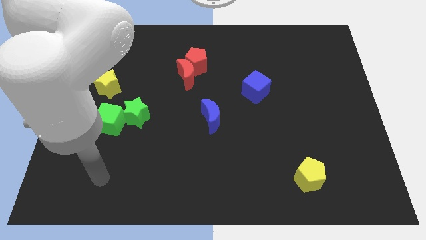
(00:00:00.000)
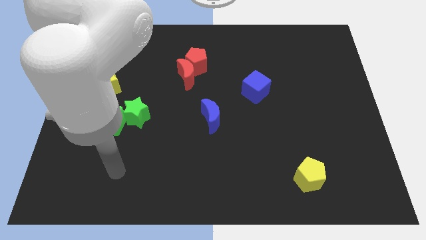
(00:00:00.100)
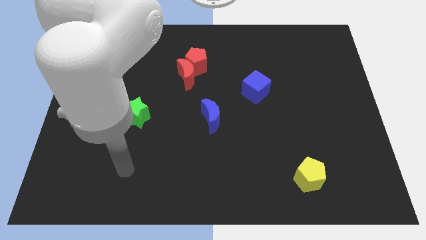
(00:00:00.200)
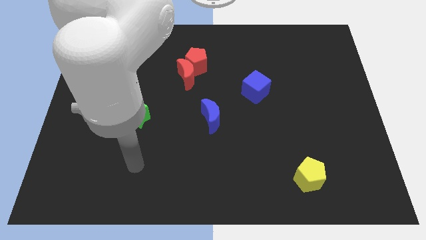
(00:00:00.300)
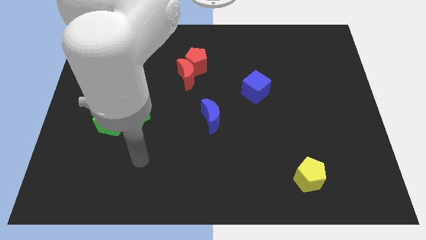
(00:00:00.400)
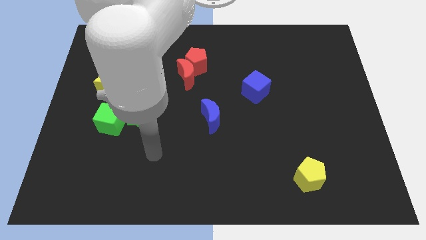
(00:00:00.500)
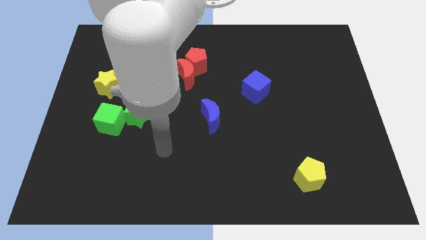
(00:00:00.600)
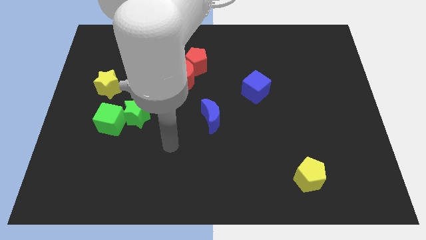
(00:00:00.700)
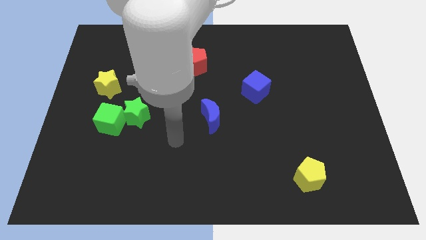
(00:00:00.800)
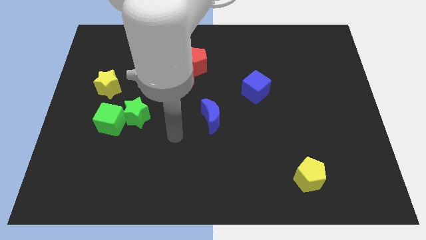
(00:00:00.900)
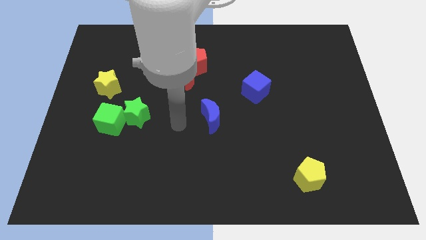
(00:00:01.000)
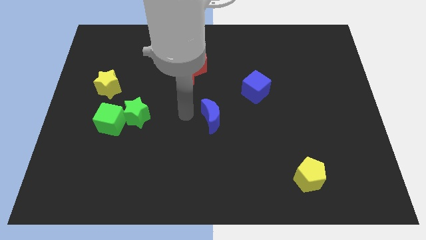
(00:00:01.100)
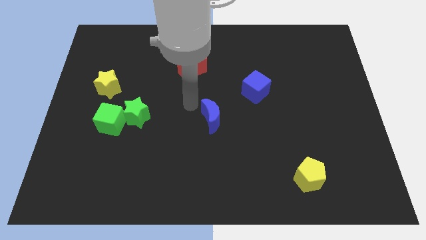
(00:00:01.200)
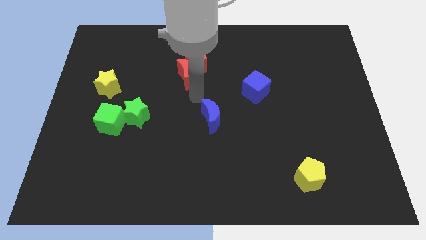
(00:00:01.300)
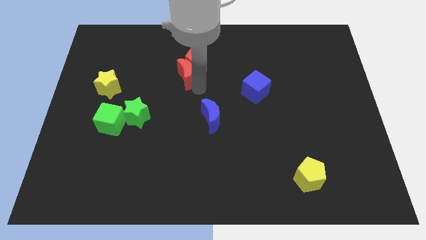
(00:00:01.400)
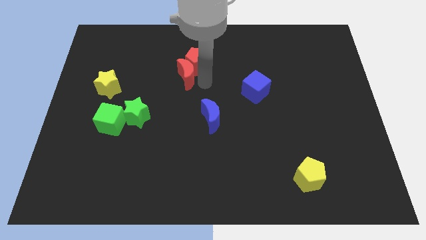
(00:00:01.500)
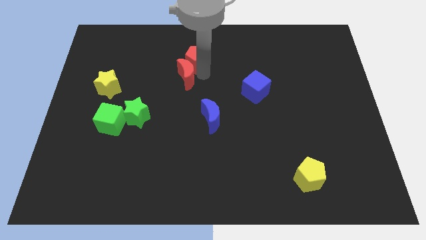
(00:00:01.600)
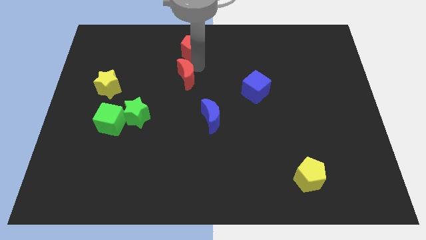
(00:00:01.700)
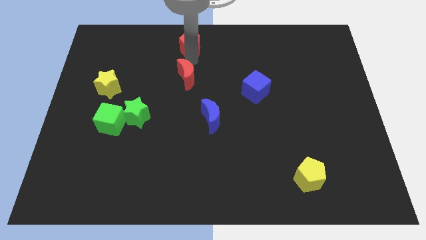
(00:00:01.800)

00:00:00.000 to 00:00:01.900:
pull the red moon apart from the red pentagon

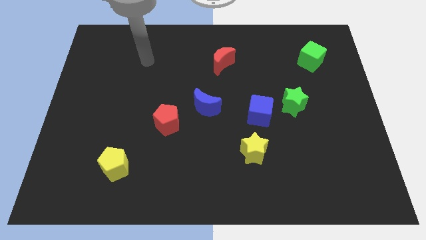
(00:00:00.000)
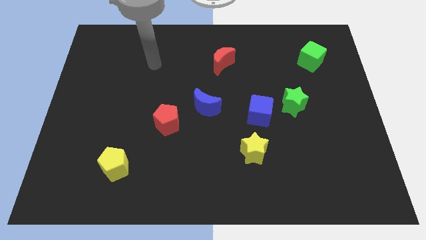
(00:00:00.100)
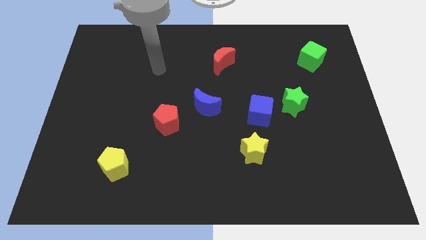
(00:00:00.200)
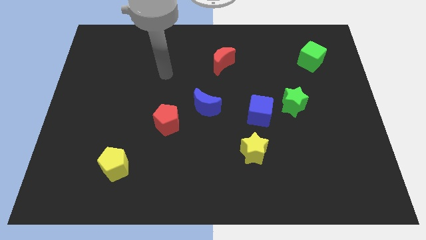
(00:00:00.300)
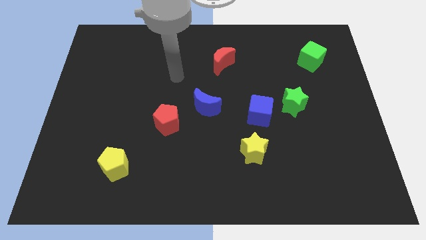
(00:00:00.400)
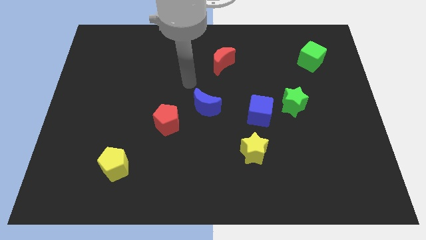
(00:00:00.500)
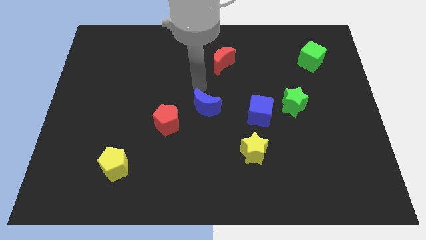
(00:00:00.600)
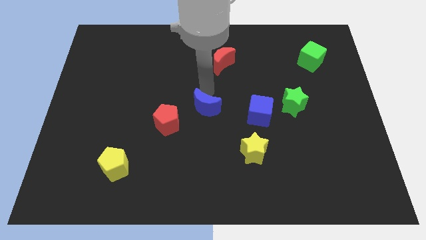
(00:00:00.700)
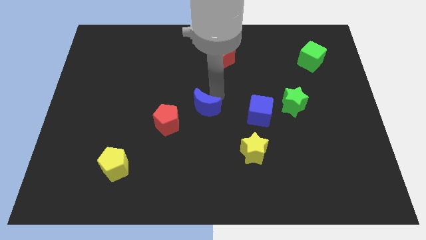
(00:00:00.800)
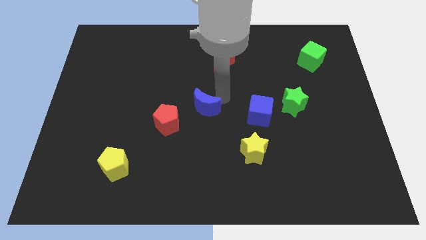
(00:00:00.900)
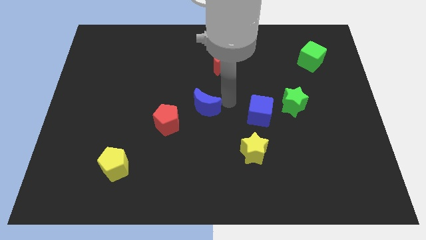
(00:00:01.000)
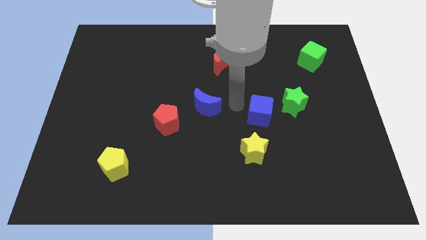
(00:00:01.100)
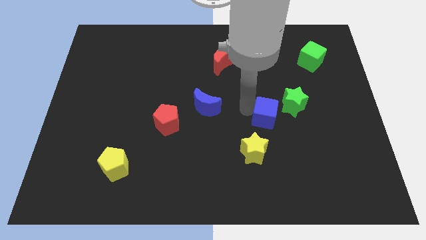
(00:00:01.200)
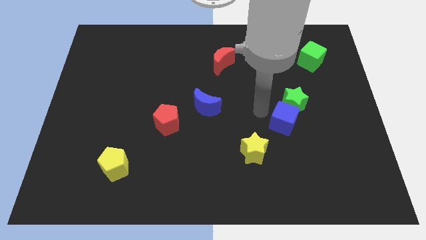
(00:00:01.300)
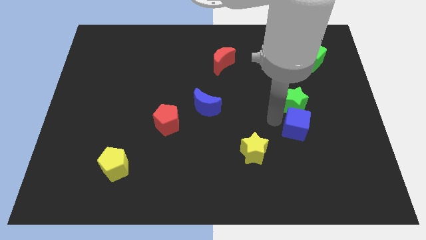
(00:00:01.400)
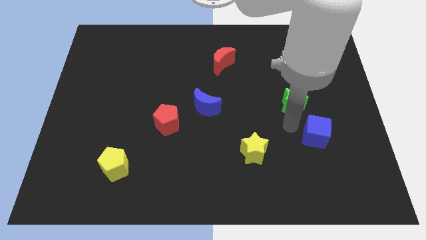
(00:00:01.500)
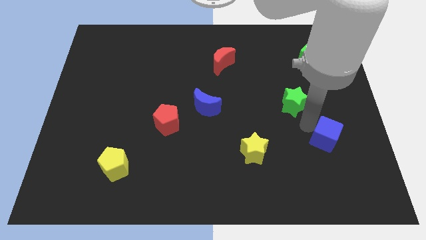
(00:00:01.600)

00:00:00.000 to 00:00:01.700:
pull the green star apart from the blue cube

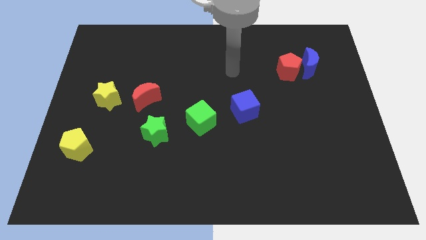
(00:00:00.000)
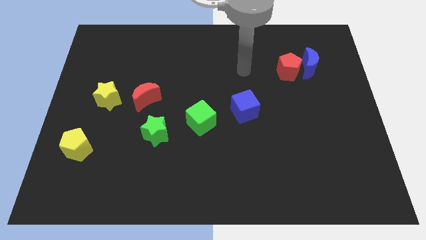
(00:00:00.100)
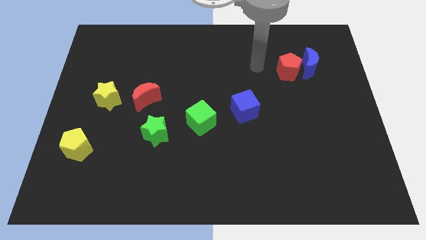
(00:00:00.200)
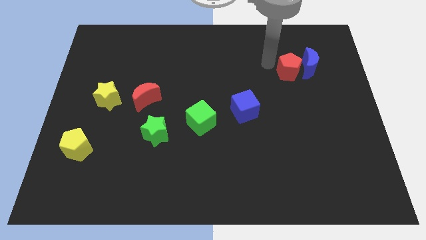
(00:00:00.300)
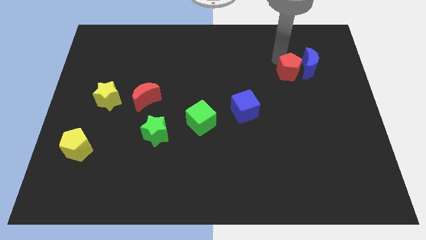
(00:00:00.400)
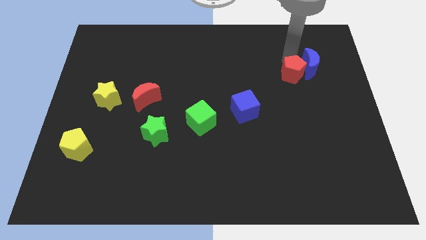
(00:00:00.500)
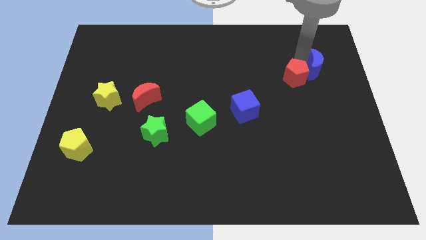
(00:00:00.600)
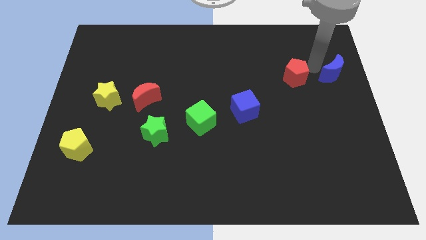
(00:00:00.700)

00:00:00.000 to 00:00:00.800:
separate the red pentagon from the blue moon

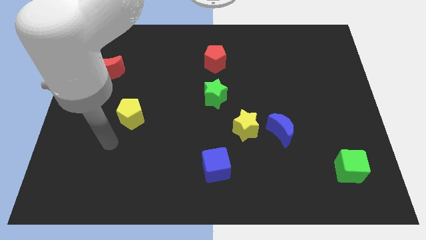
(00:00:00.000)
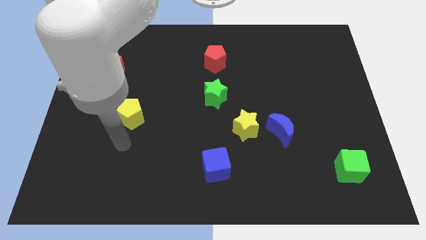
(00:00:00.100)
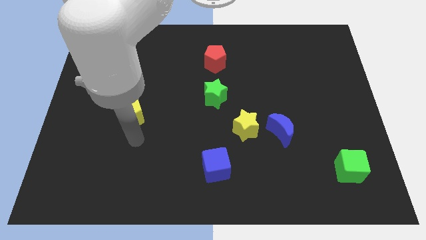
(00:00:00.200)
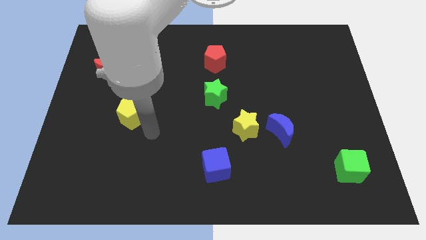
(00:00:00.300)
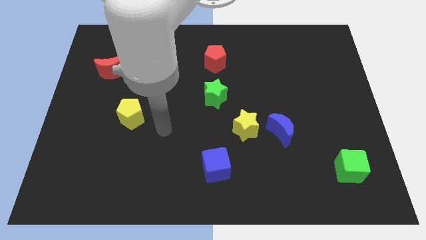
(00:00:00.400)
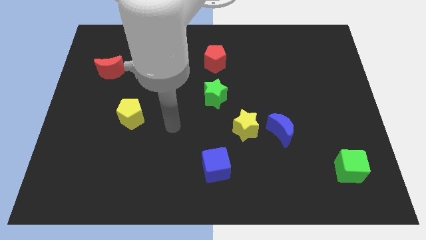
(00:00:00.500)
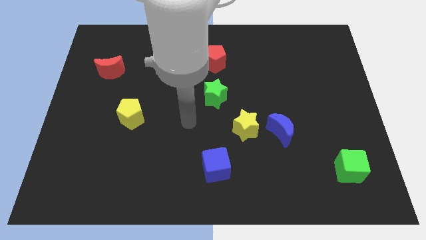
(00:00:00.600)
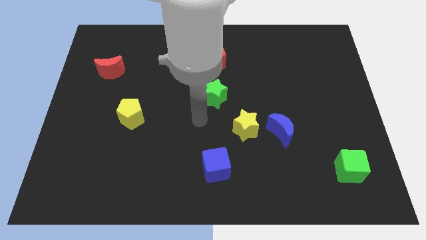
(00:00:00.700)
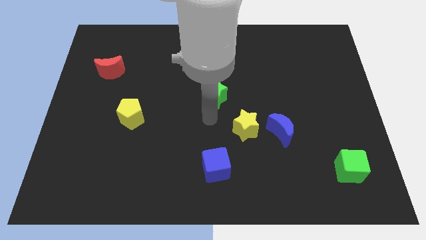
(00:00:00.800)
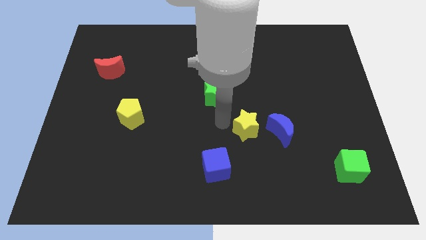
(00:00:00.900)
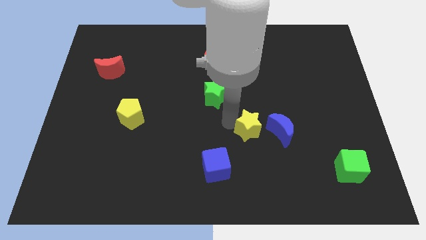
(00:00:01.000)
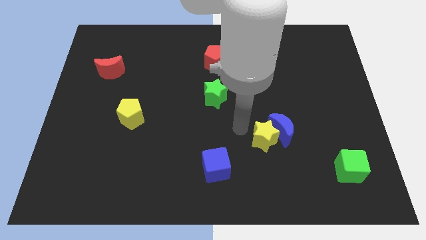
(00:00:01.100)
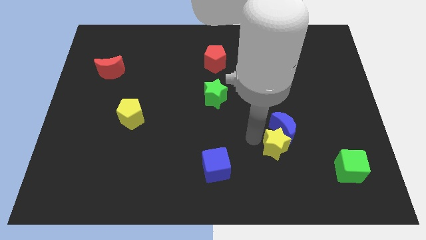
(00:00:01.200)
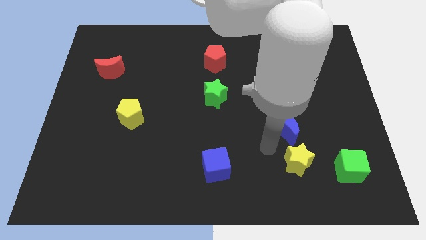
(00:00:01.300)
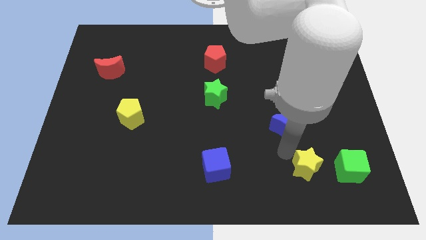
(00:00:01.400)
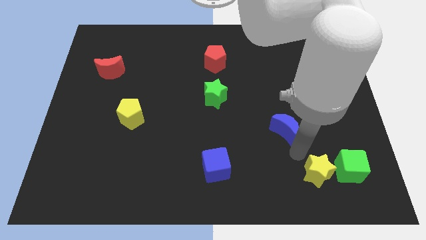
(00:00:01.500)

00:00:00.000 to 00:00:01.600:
pull the blue moon apart from the yellow star

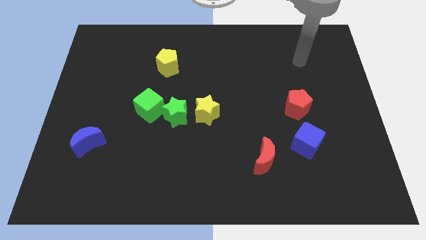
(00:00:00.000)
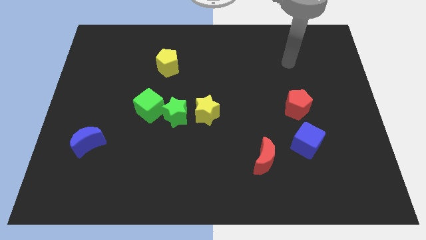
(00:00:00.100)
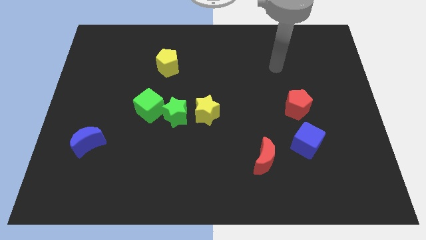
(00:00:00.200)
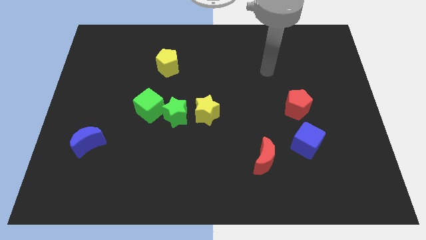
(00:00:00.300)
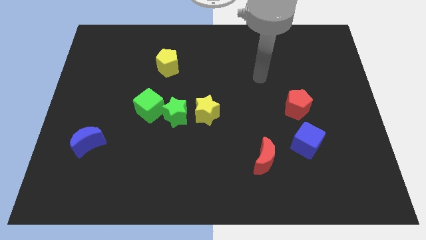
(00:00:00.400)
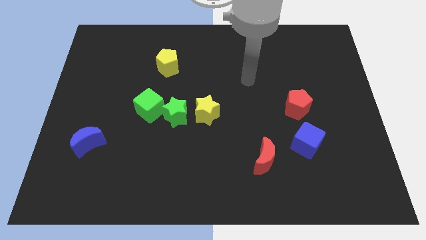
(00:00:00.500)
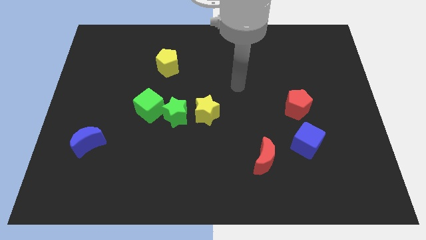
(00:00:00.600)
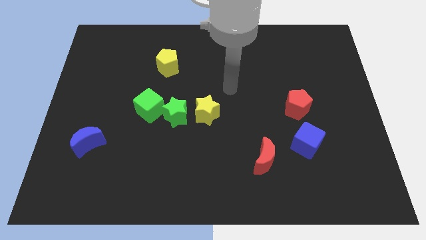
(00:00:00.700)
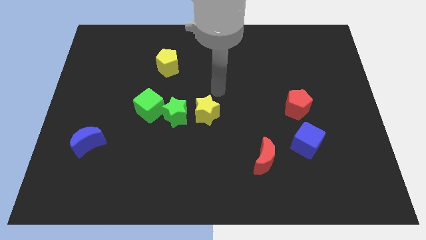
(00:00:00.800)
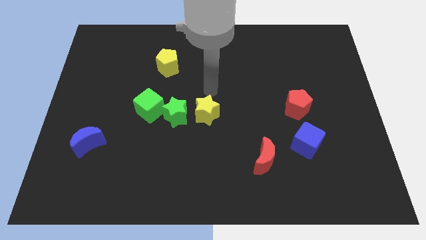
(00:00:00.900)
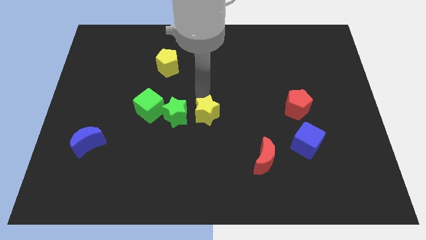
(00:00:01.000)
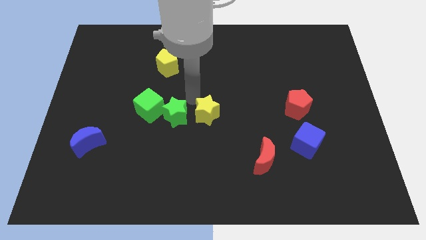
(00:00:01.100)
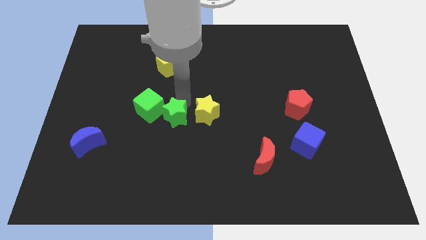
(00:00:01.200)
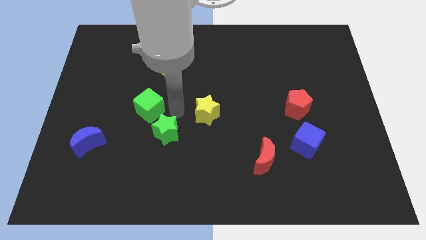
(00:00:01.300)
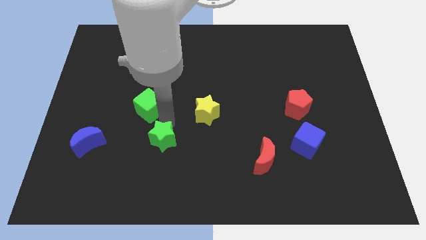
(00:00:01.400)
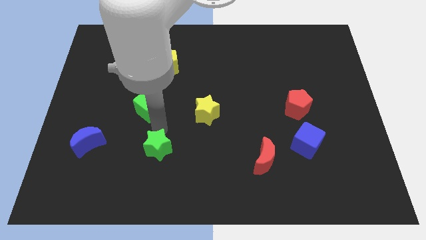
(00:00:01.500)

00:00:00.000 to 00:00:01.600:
separate the green cube from the green star

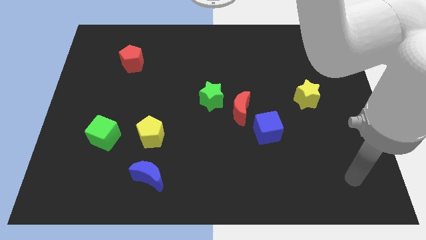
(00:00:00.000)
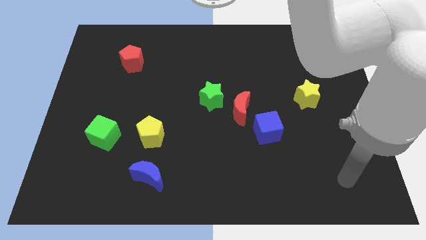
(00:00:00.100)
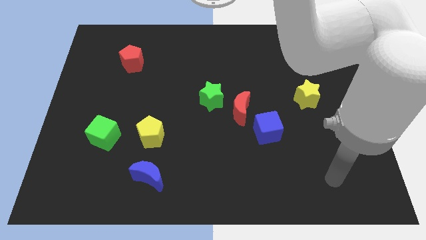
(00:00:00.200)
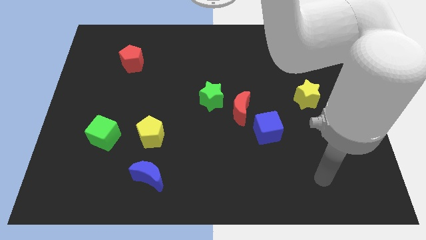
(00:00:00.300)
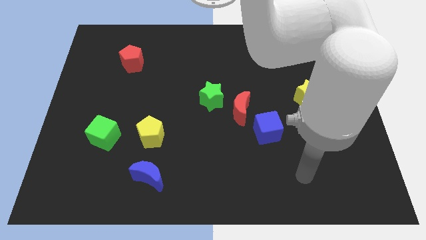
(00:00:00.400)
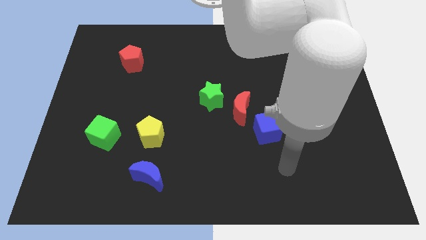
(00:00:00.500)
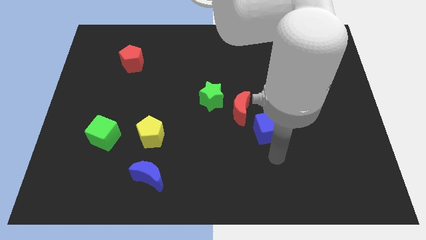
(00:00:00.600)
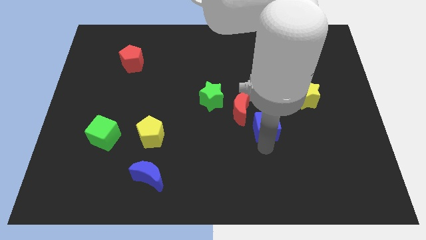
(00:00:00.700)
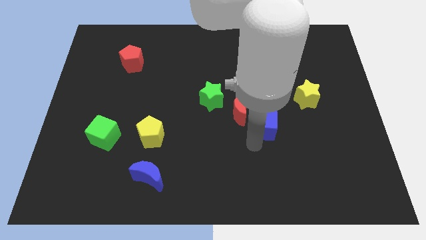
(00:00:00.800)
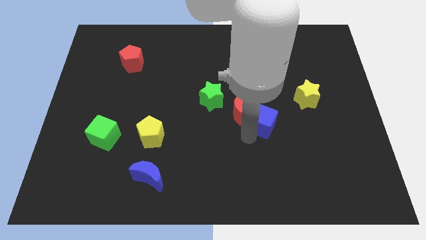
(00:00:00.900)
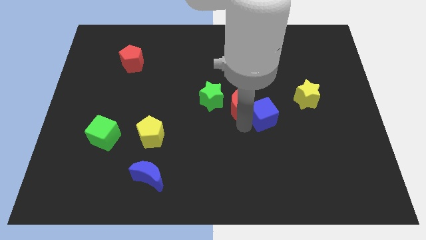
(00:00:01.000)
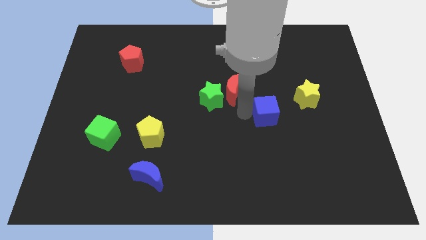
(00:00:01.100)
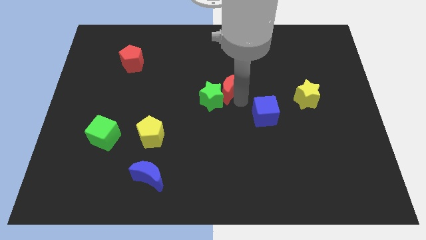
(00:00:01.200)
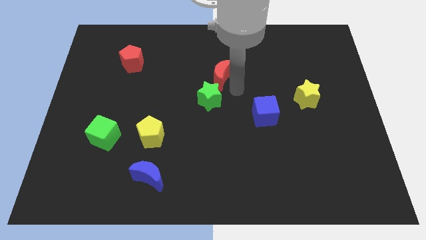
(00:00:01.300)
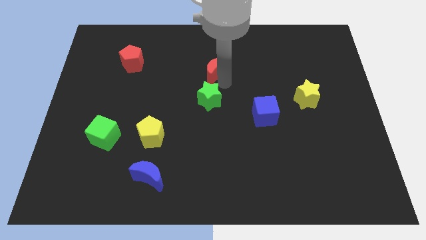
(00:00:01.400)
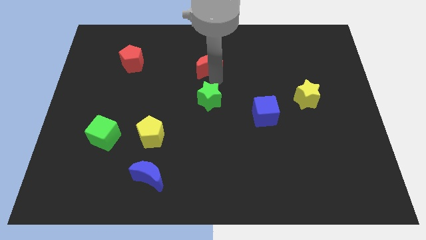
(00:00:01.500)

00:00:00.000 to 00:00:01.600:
move the green star away from the red moon

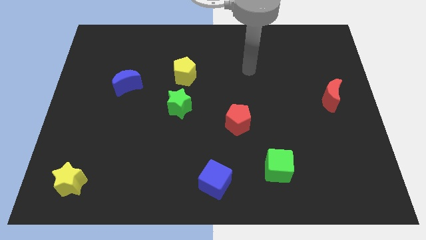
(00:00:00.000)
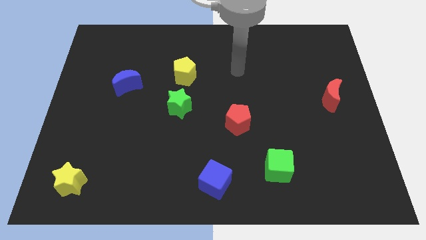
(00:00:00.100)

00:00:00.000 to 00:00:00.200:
separate the green star from the yellow pentagon
